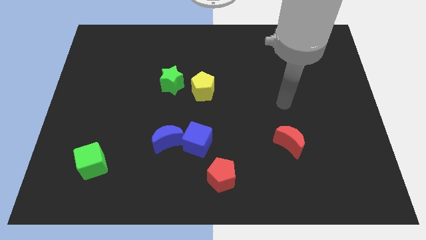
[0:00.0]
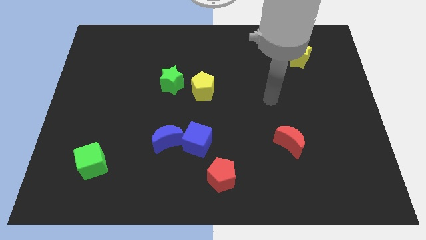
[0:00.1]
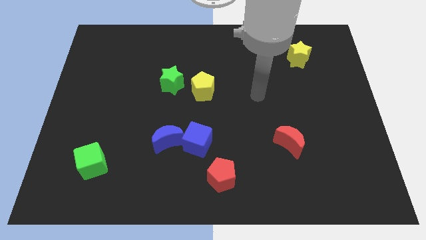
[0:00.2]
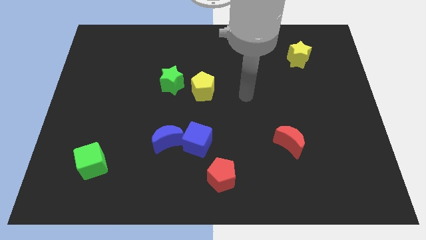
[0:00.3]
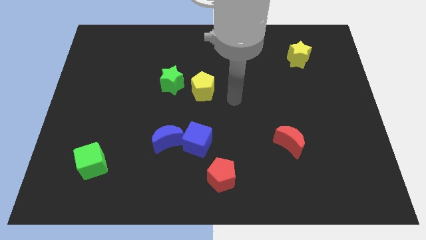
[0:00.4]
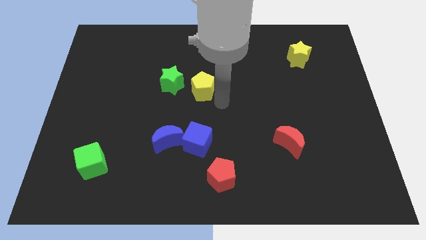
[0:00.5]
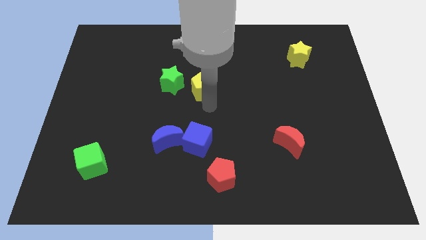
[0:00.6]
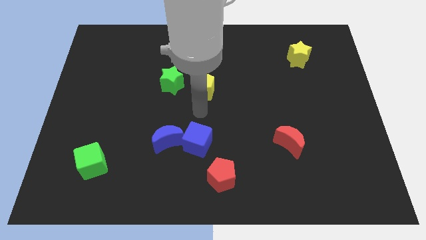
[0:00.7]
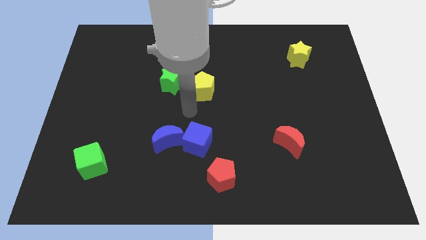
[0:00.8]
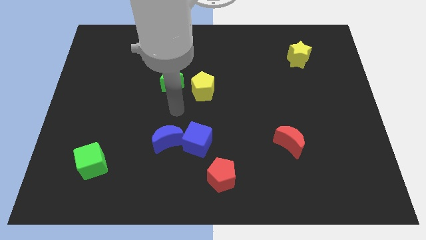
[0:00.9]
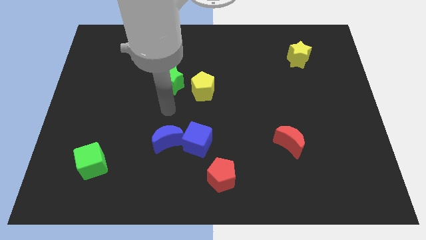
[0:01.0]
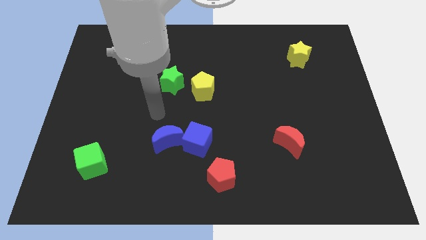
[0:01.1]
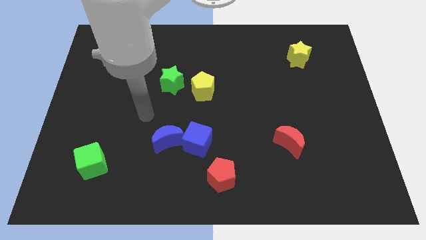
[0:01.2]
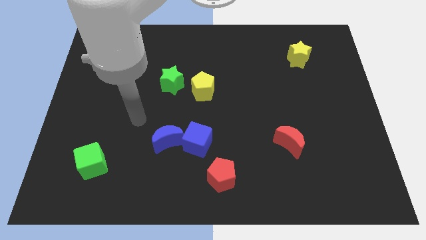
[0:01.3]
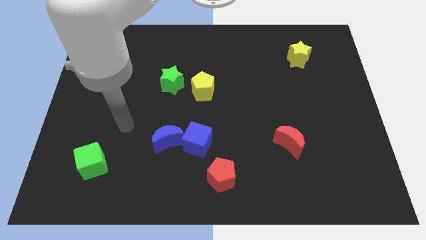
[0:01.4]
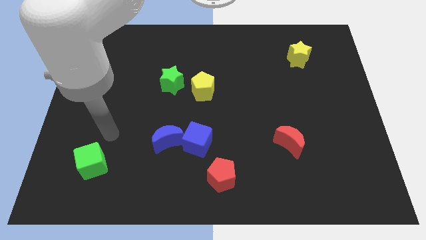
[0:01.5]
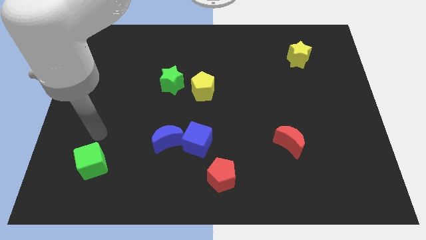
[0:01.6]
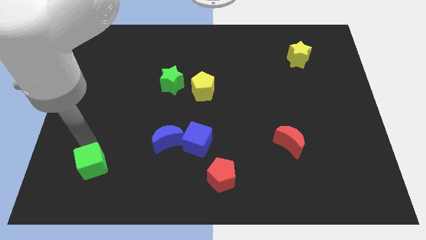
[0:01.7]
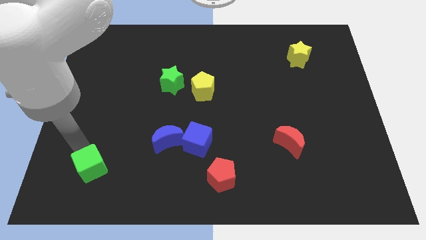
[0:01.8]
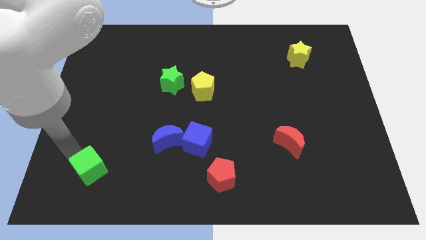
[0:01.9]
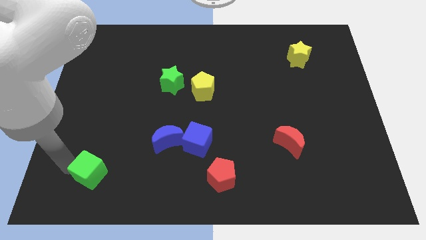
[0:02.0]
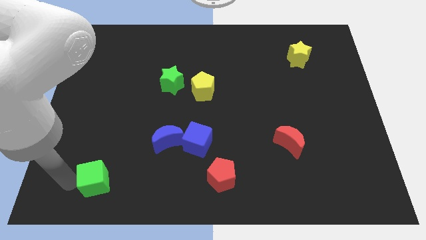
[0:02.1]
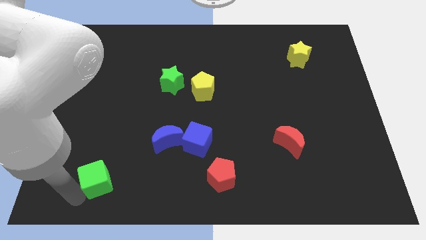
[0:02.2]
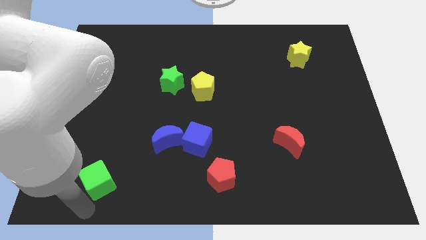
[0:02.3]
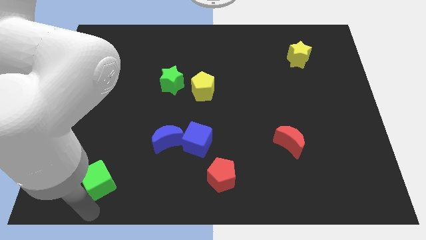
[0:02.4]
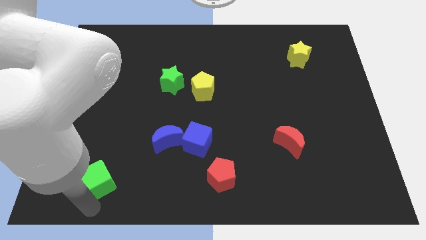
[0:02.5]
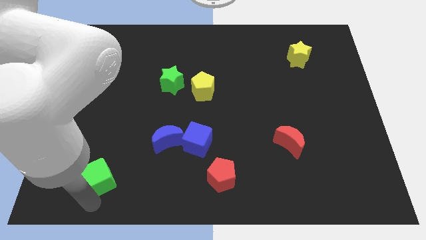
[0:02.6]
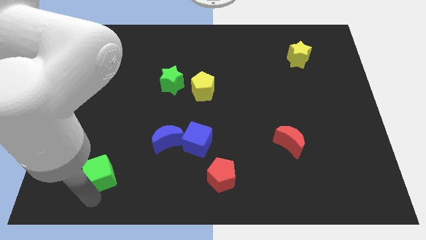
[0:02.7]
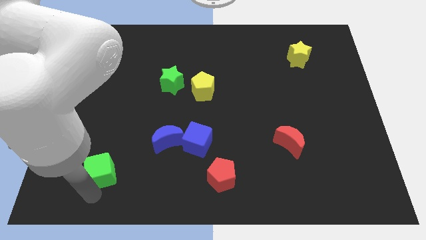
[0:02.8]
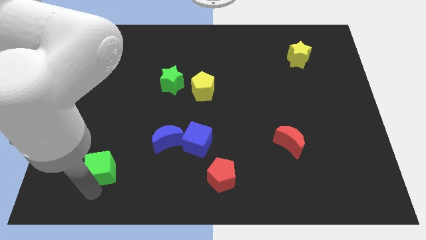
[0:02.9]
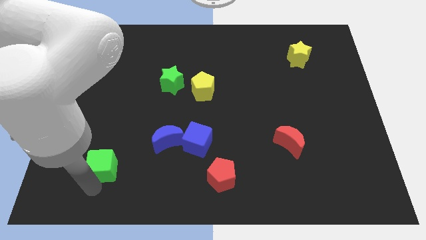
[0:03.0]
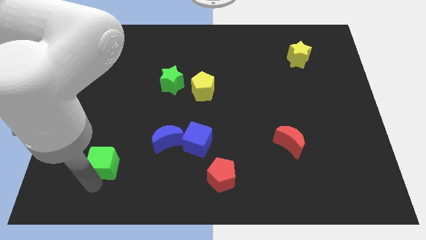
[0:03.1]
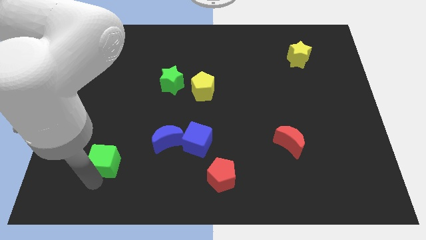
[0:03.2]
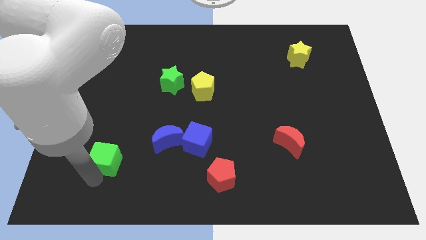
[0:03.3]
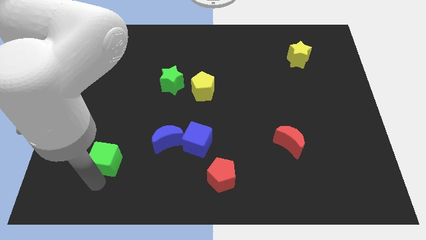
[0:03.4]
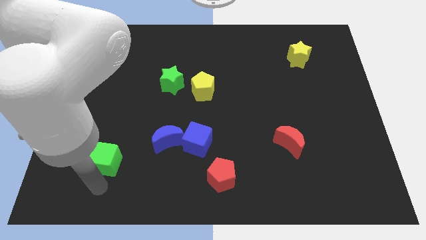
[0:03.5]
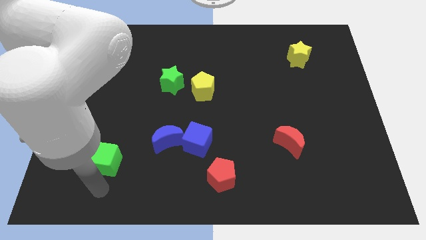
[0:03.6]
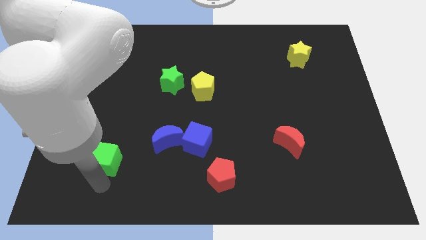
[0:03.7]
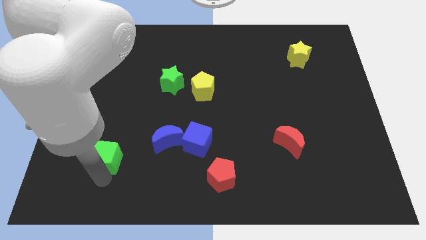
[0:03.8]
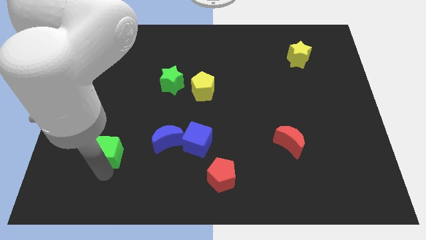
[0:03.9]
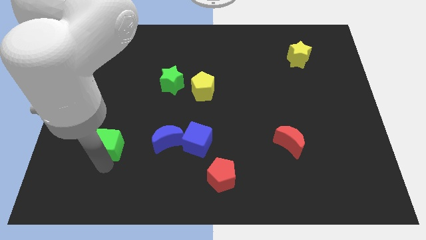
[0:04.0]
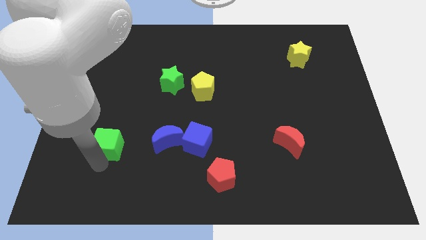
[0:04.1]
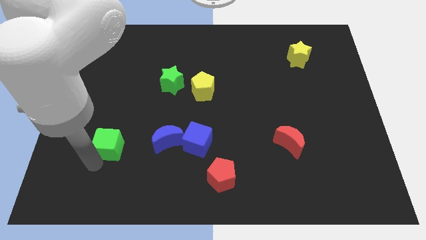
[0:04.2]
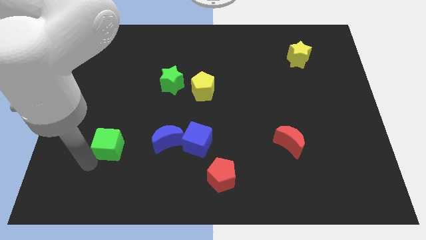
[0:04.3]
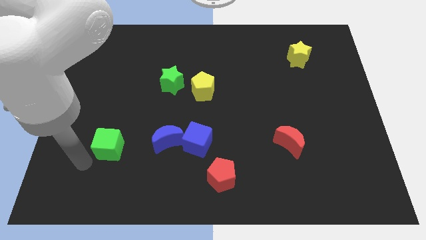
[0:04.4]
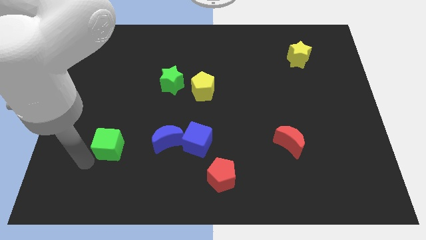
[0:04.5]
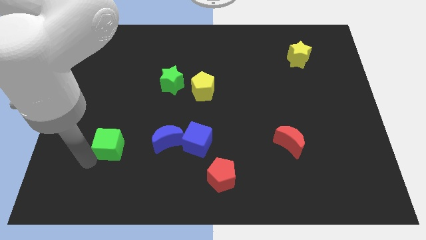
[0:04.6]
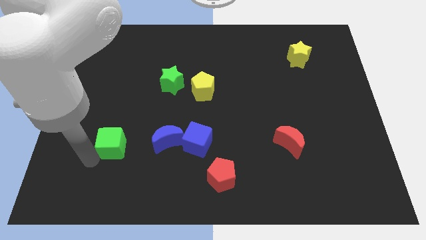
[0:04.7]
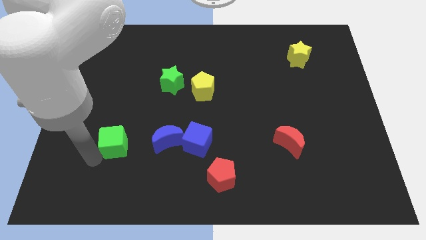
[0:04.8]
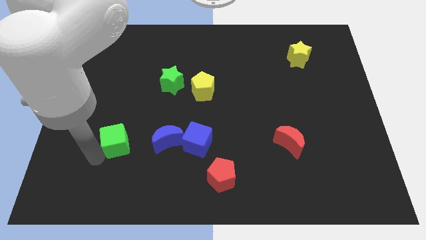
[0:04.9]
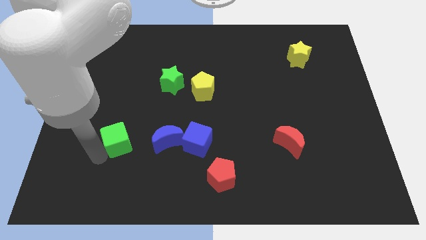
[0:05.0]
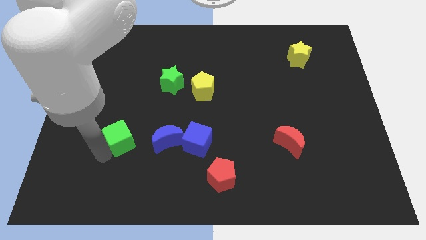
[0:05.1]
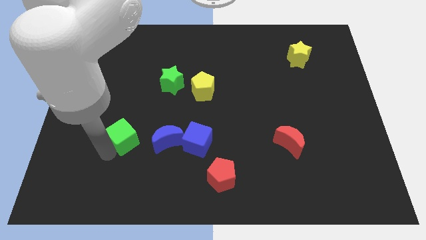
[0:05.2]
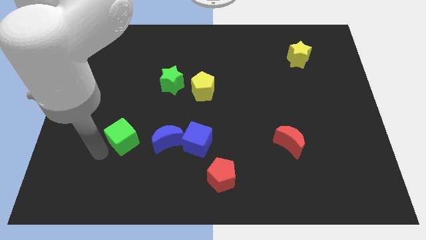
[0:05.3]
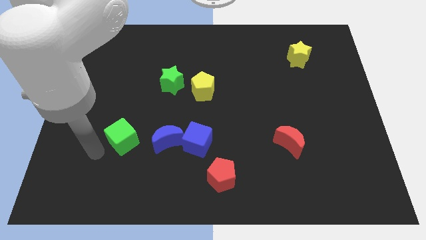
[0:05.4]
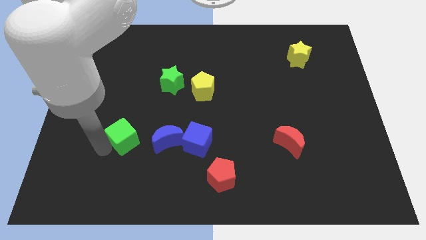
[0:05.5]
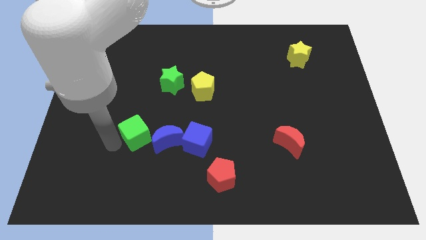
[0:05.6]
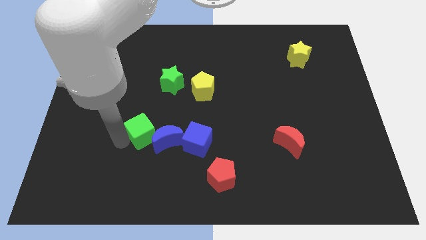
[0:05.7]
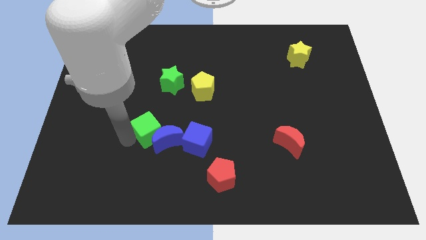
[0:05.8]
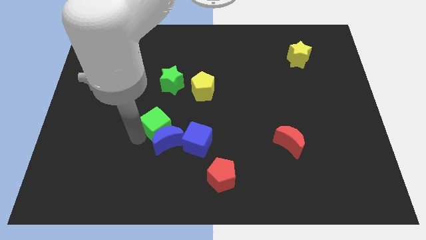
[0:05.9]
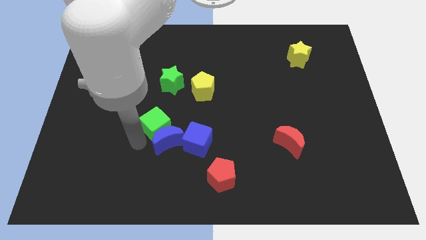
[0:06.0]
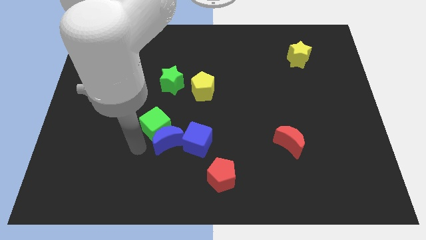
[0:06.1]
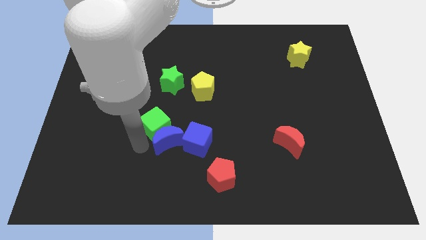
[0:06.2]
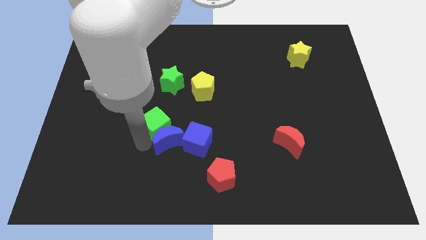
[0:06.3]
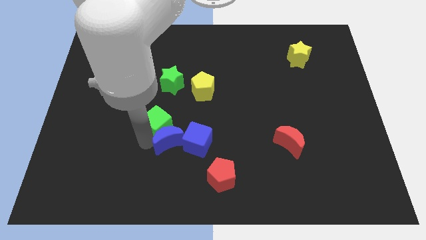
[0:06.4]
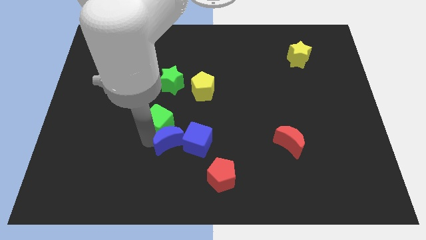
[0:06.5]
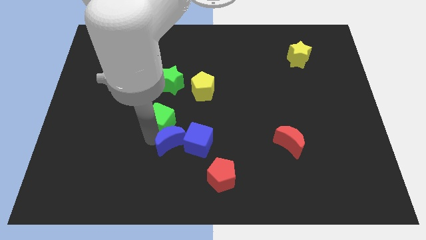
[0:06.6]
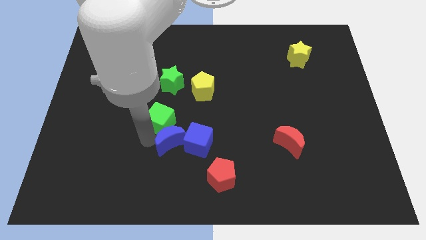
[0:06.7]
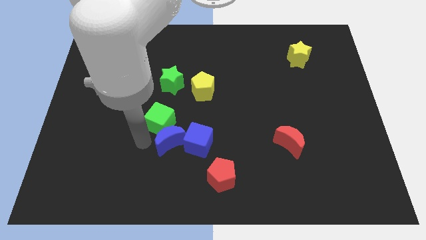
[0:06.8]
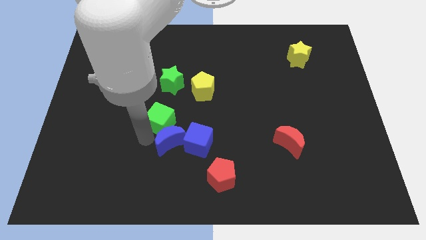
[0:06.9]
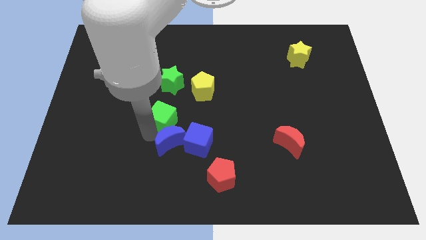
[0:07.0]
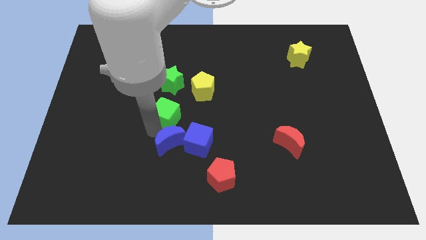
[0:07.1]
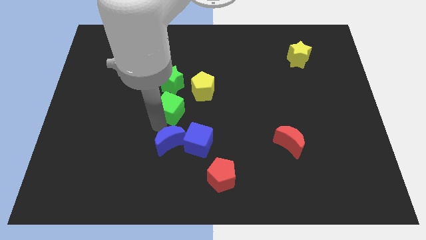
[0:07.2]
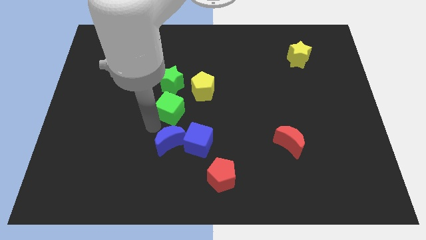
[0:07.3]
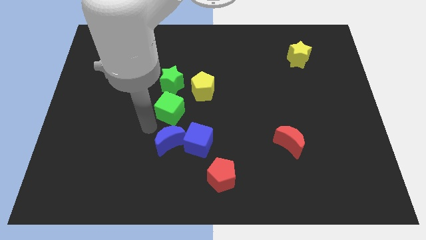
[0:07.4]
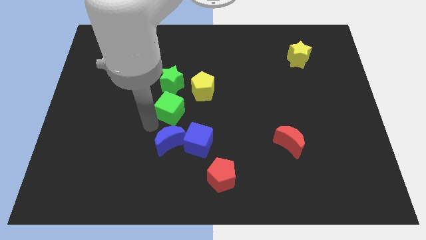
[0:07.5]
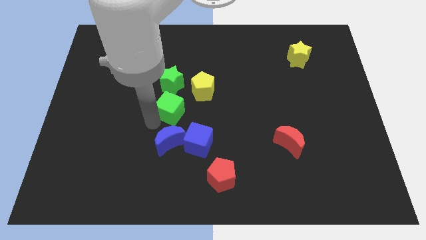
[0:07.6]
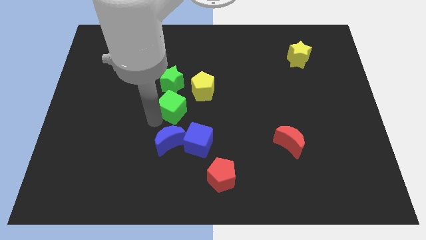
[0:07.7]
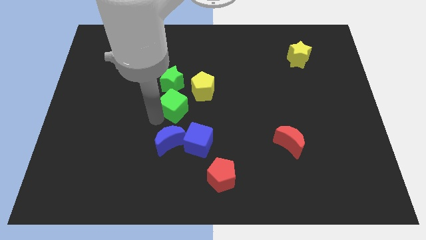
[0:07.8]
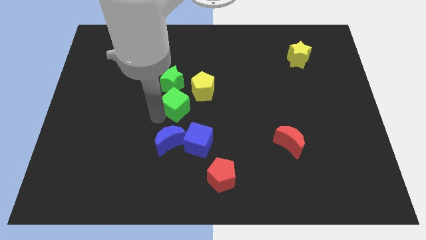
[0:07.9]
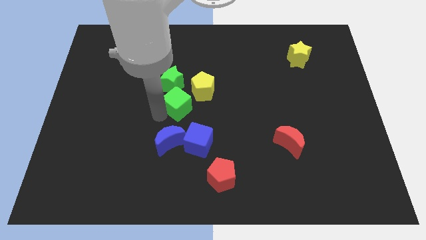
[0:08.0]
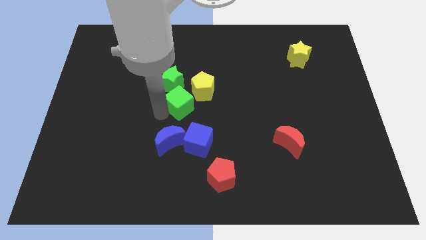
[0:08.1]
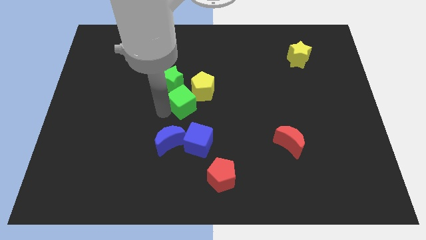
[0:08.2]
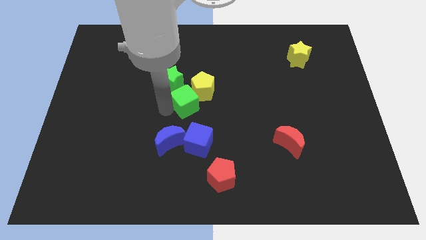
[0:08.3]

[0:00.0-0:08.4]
move the green cube next to the yellow pentagon
